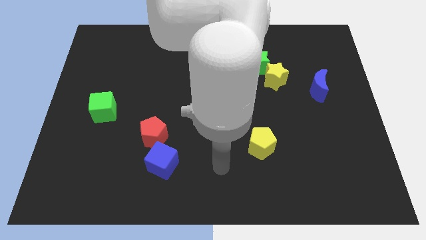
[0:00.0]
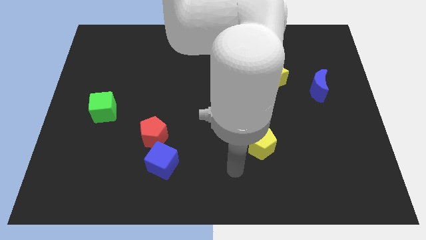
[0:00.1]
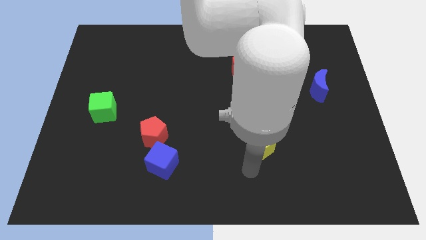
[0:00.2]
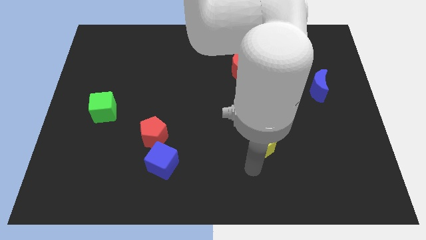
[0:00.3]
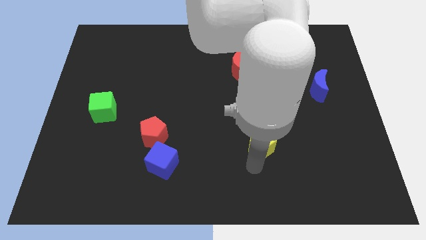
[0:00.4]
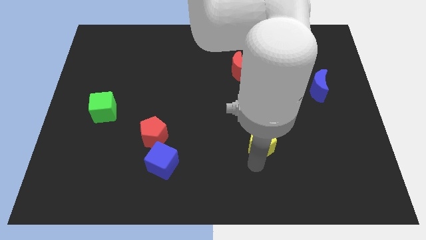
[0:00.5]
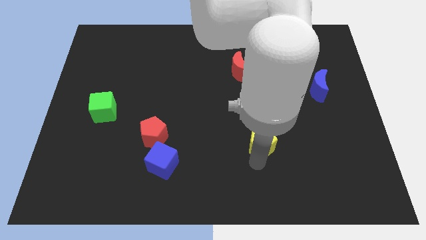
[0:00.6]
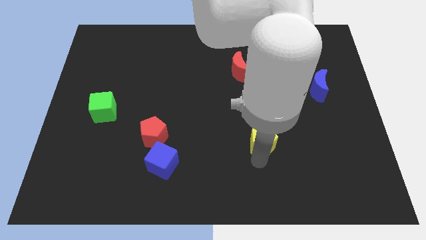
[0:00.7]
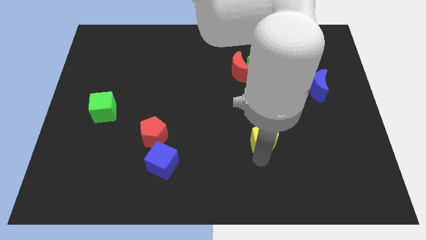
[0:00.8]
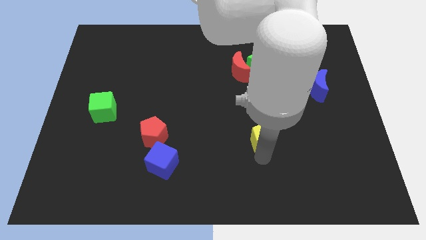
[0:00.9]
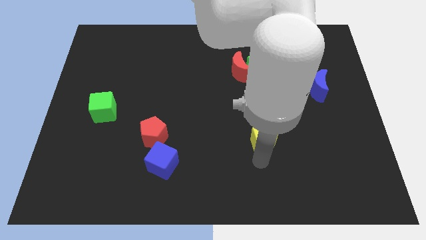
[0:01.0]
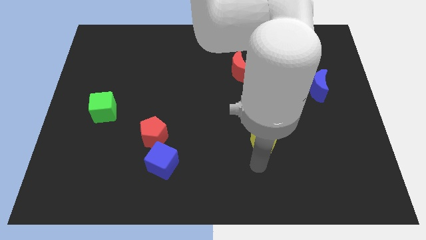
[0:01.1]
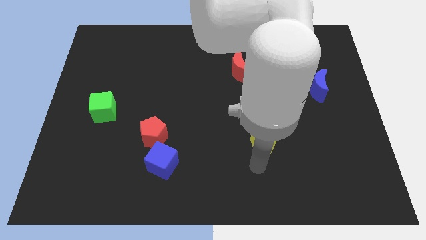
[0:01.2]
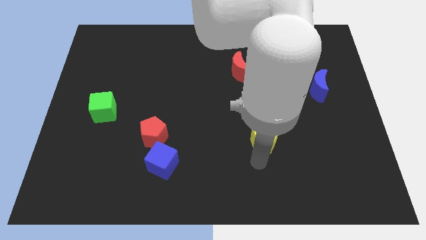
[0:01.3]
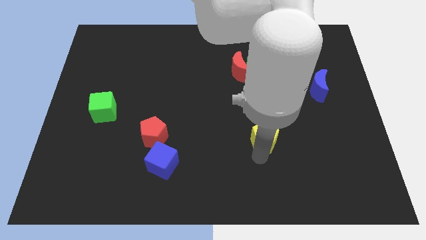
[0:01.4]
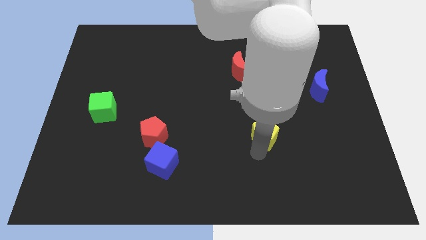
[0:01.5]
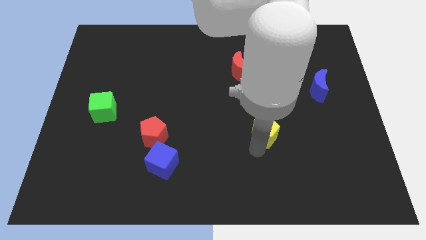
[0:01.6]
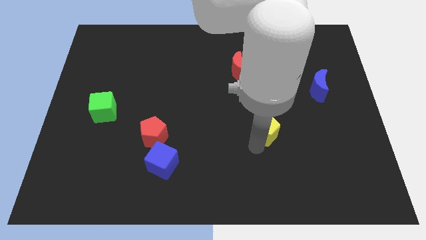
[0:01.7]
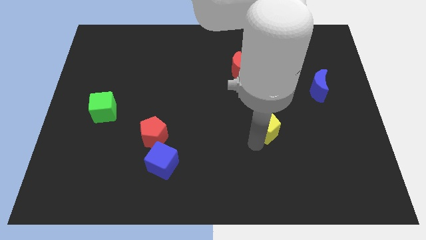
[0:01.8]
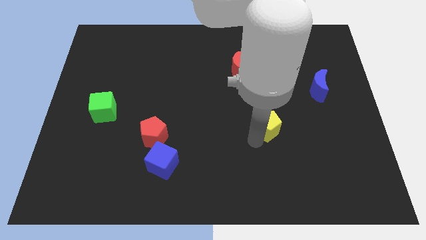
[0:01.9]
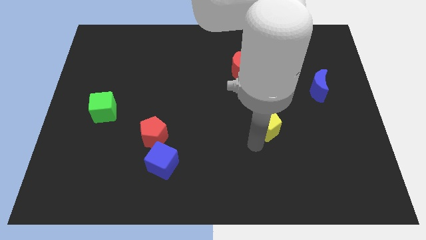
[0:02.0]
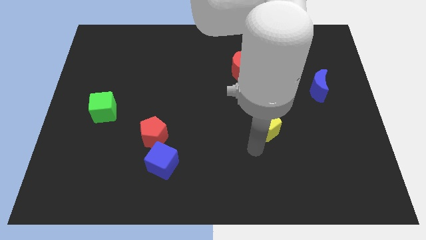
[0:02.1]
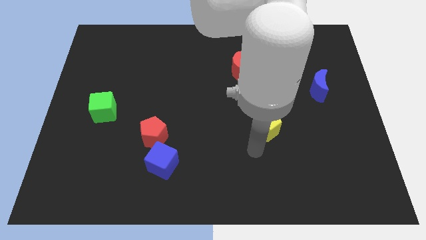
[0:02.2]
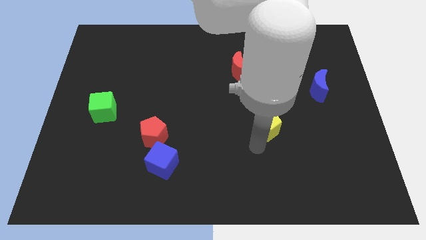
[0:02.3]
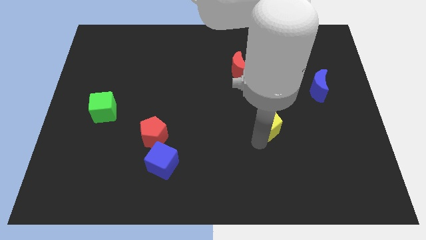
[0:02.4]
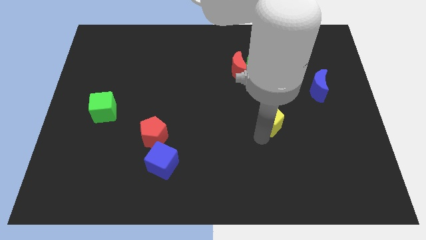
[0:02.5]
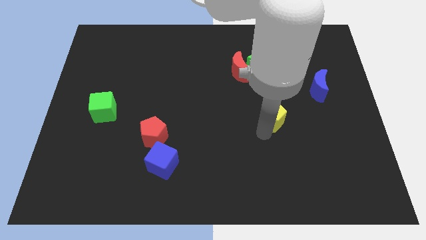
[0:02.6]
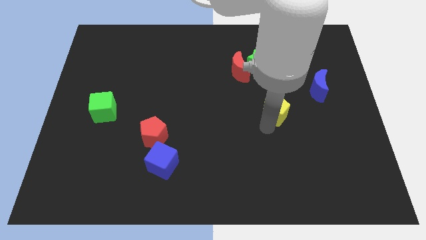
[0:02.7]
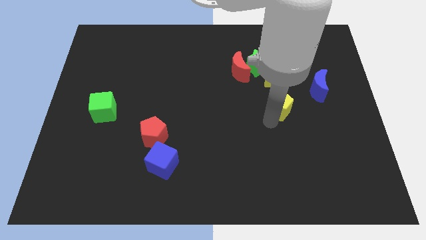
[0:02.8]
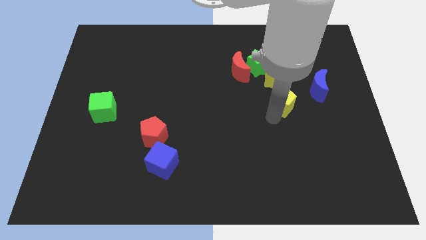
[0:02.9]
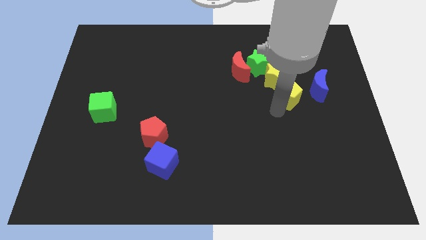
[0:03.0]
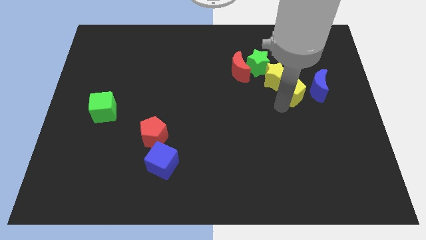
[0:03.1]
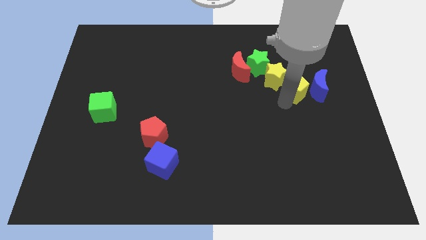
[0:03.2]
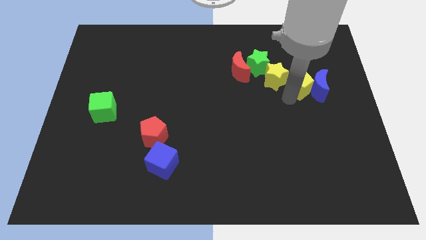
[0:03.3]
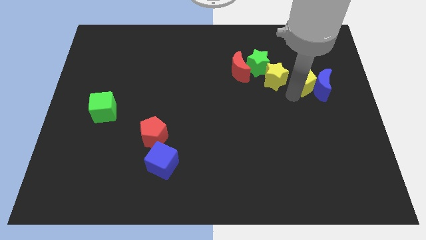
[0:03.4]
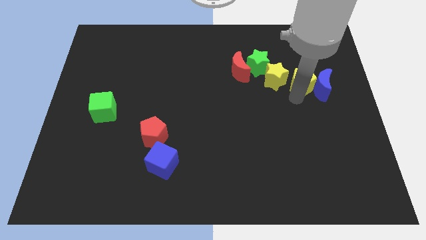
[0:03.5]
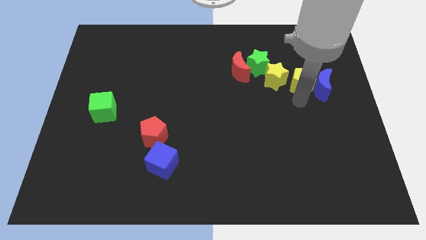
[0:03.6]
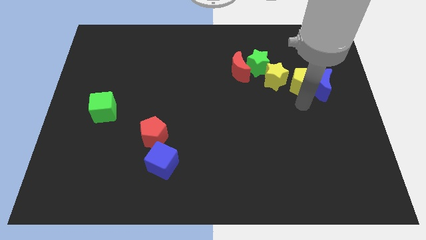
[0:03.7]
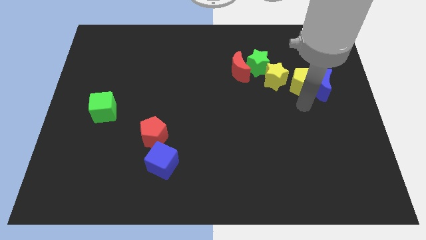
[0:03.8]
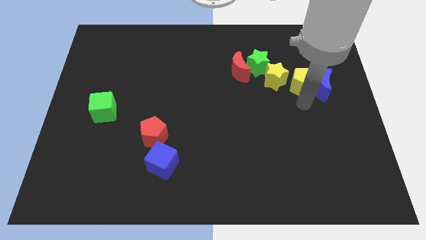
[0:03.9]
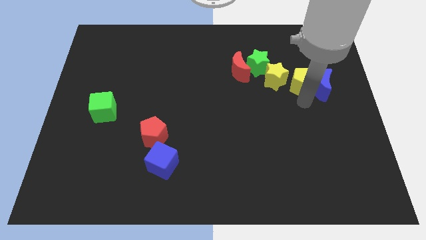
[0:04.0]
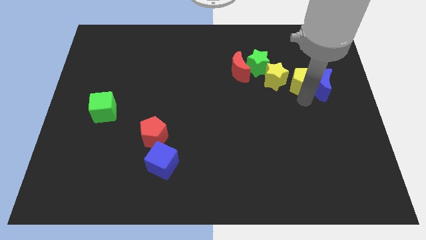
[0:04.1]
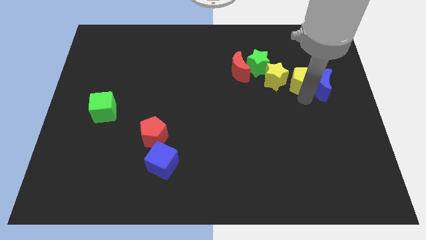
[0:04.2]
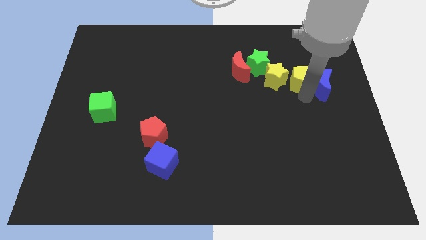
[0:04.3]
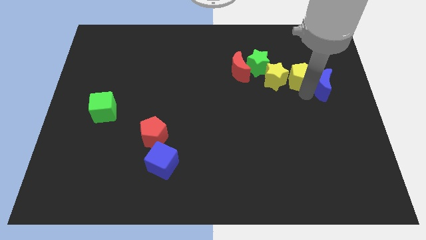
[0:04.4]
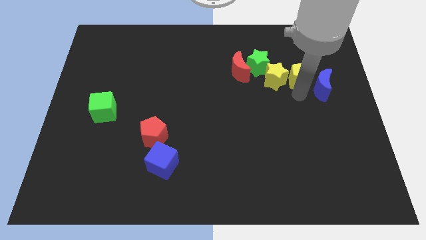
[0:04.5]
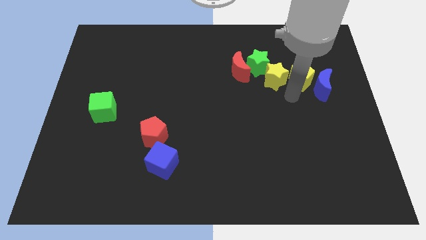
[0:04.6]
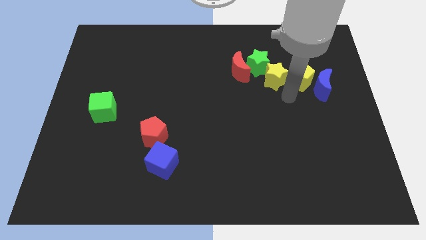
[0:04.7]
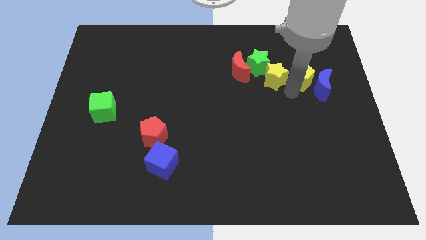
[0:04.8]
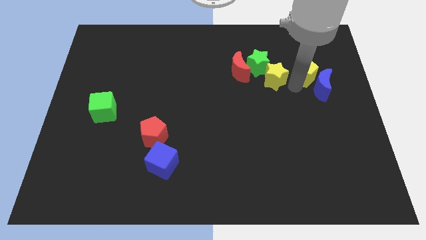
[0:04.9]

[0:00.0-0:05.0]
slide the yellow pentagon to the top side of the blue moon

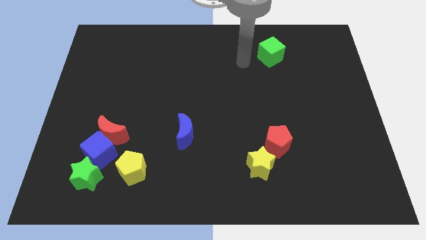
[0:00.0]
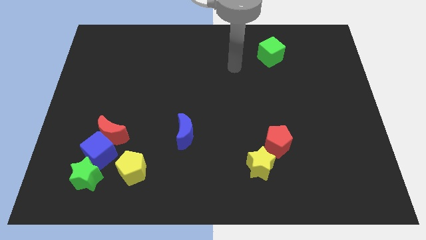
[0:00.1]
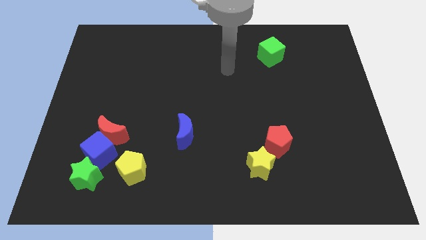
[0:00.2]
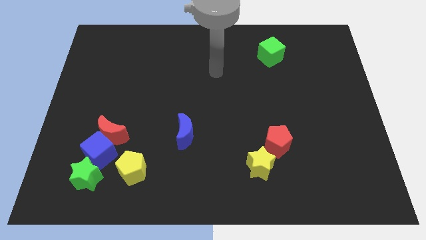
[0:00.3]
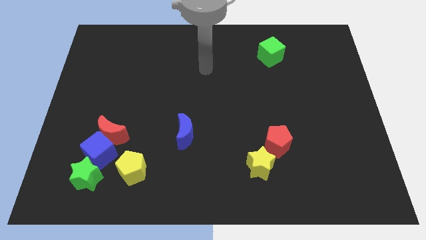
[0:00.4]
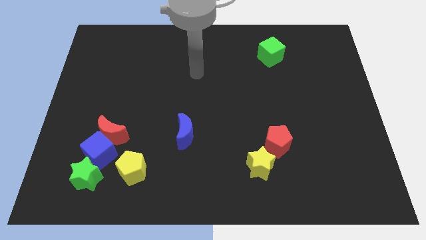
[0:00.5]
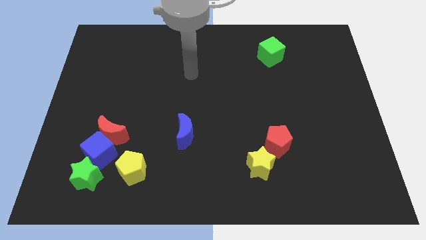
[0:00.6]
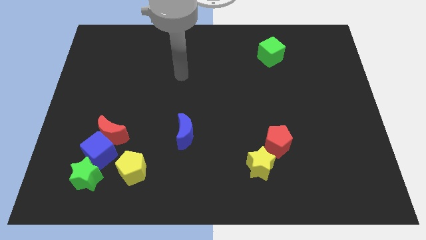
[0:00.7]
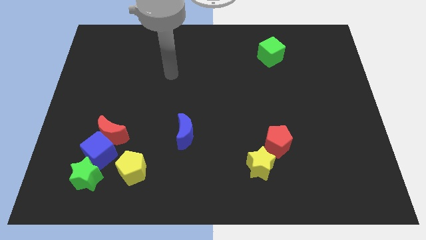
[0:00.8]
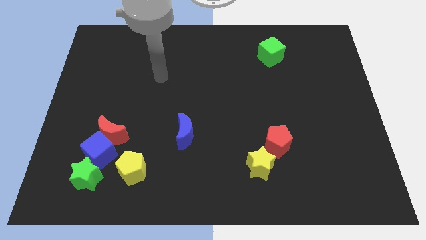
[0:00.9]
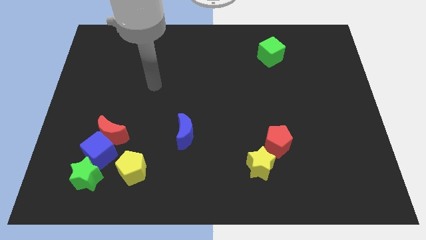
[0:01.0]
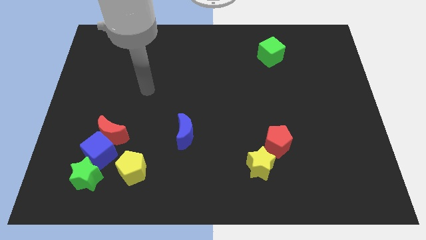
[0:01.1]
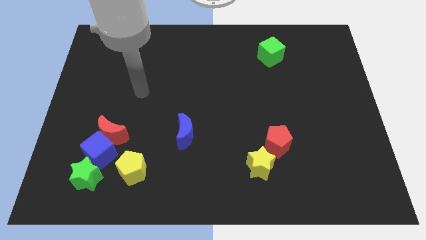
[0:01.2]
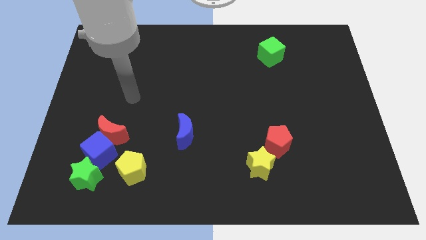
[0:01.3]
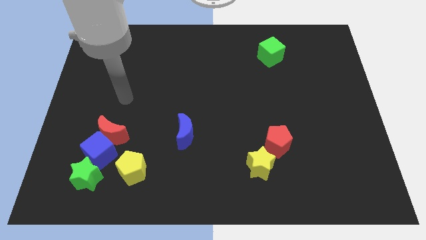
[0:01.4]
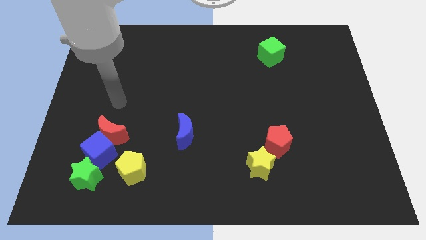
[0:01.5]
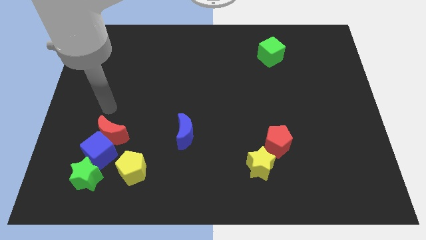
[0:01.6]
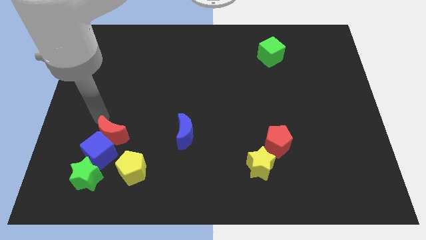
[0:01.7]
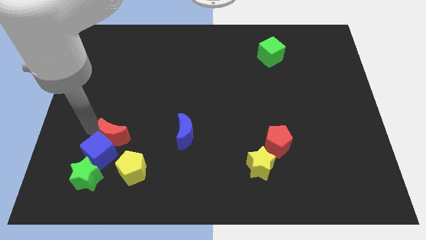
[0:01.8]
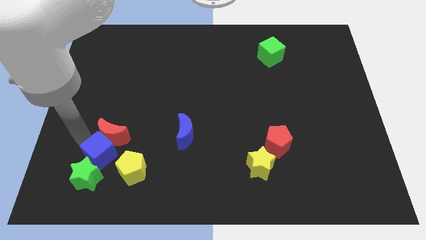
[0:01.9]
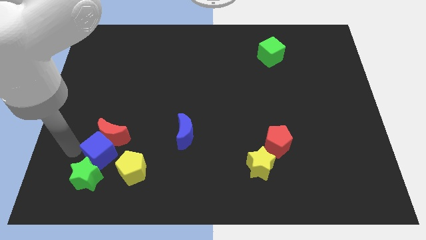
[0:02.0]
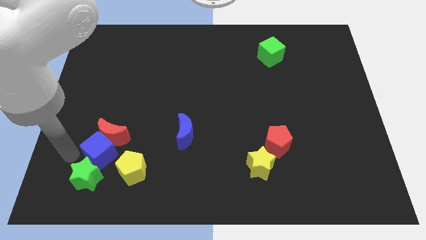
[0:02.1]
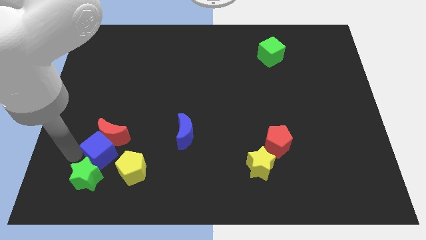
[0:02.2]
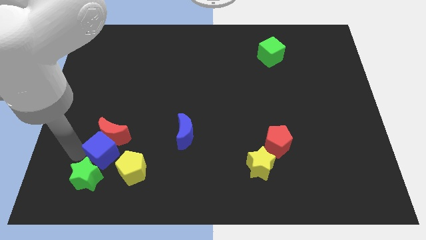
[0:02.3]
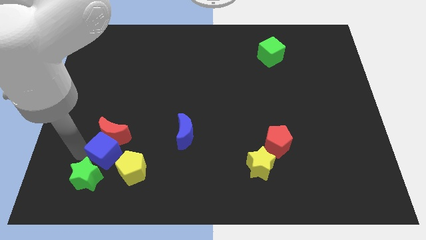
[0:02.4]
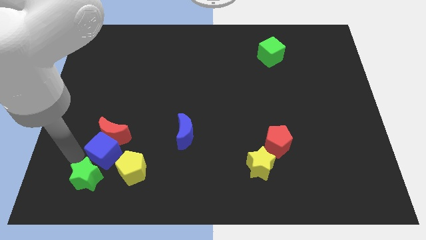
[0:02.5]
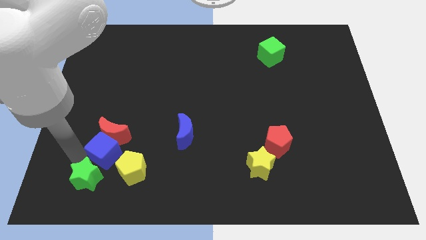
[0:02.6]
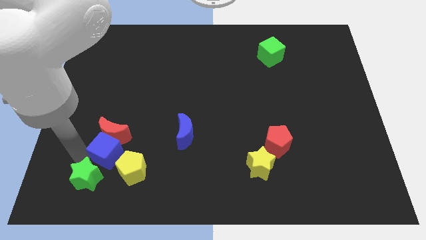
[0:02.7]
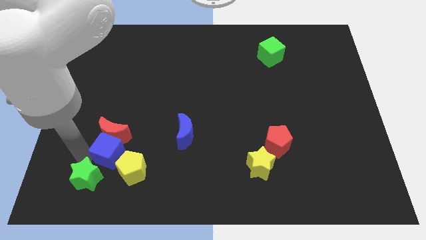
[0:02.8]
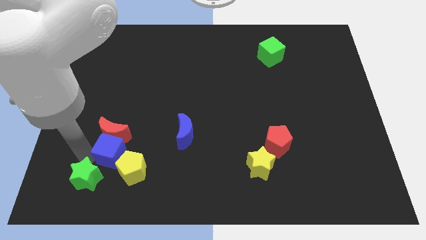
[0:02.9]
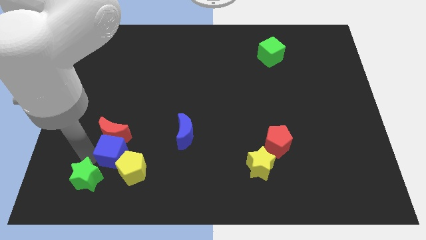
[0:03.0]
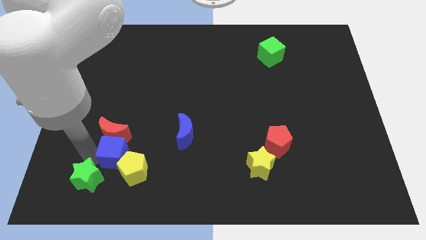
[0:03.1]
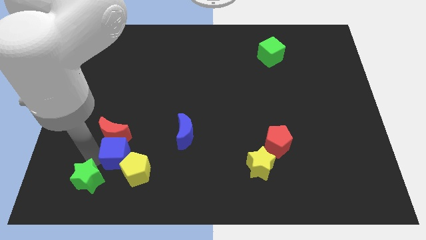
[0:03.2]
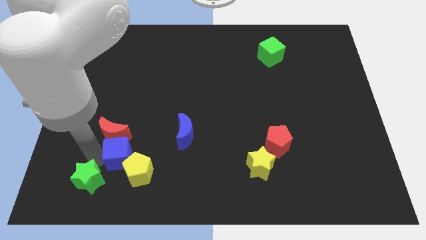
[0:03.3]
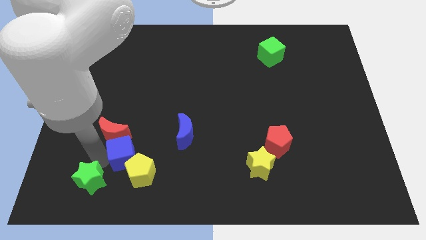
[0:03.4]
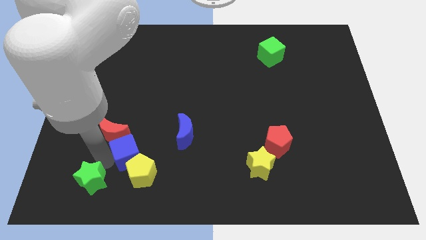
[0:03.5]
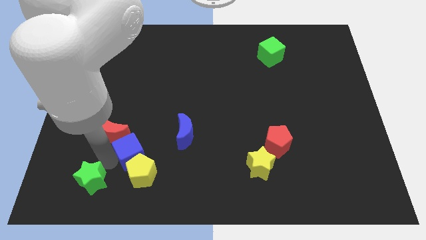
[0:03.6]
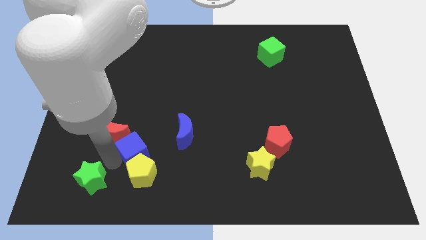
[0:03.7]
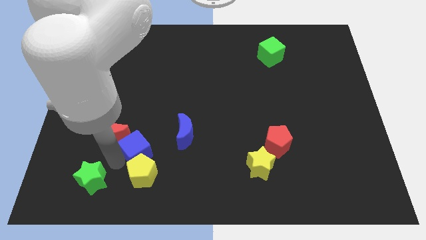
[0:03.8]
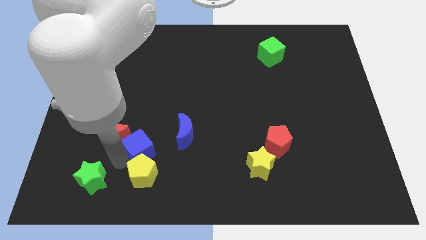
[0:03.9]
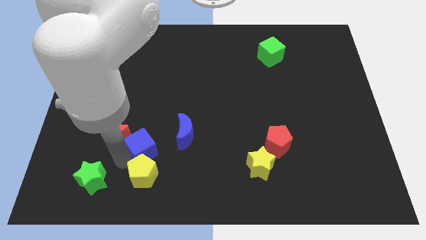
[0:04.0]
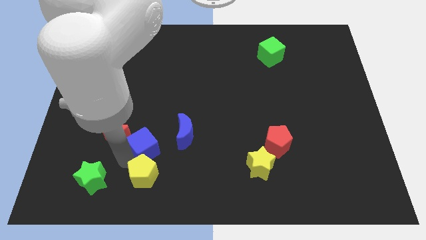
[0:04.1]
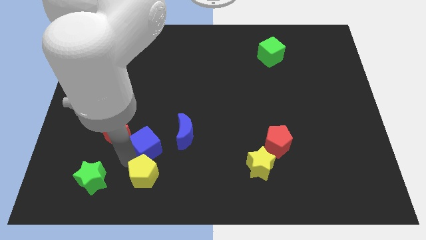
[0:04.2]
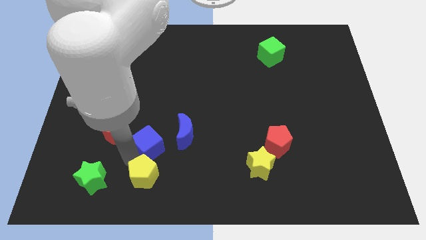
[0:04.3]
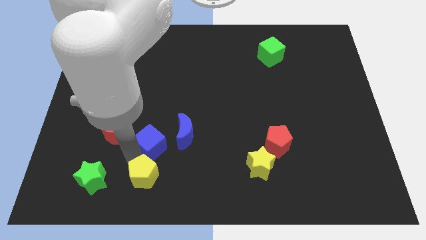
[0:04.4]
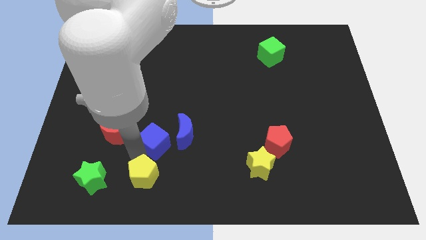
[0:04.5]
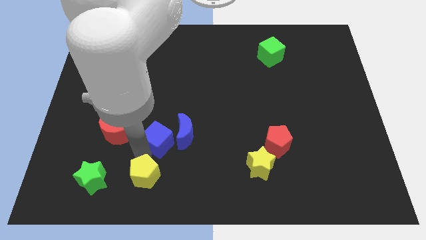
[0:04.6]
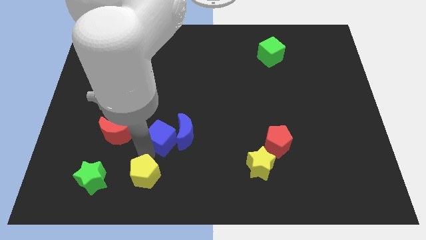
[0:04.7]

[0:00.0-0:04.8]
push the blue cube diagonally up and to the left of the blue moon
